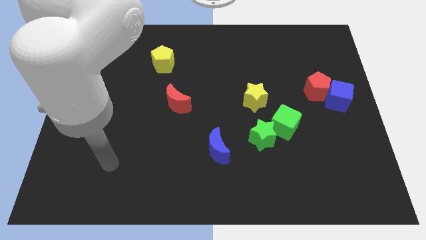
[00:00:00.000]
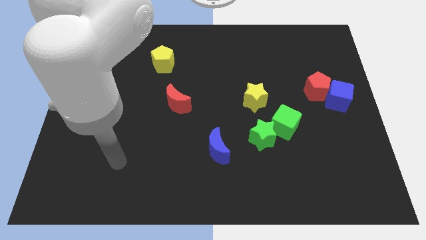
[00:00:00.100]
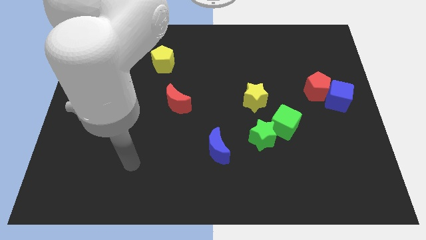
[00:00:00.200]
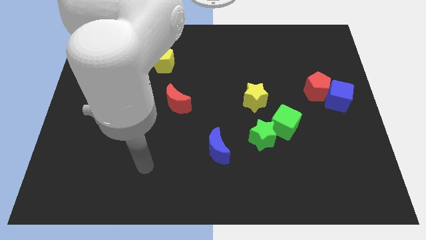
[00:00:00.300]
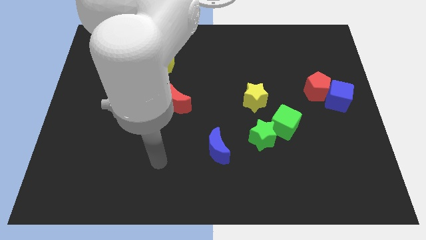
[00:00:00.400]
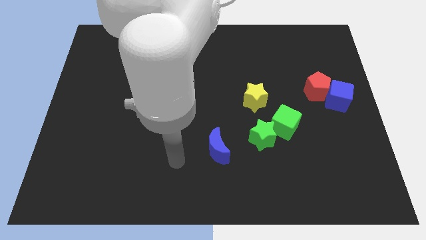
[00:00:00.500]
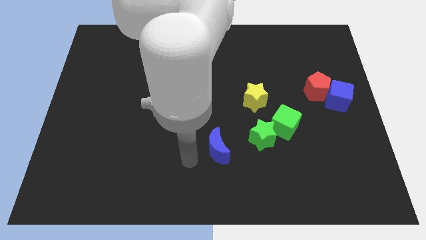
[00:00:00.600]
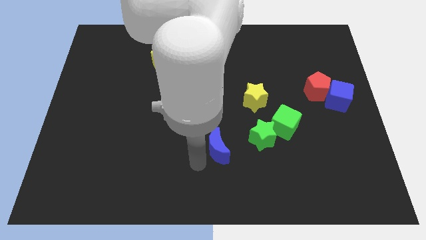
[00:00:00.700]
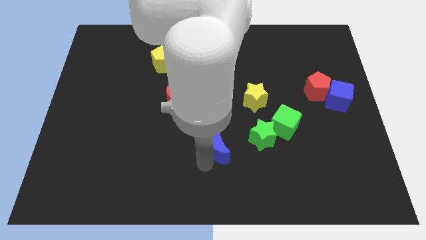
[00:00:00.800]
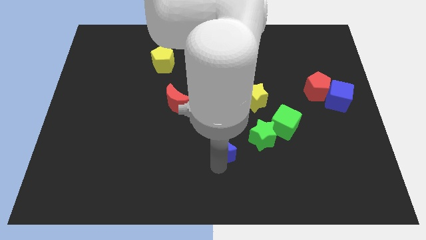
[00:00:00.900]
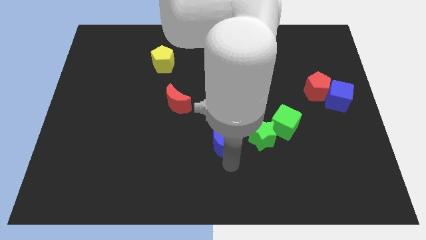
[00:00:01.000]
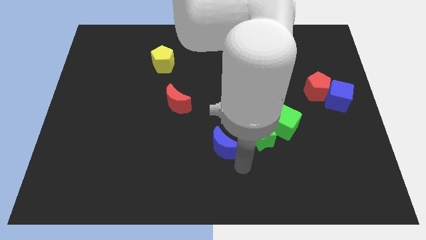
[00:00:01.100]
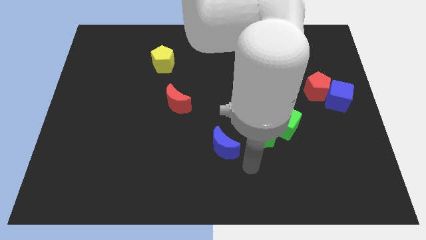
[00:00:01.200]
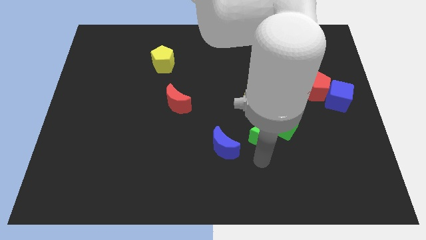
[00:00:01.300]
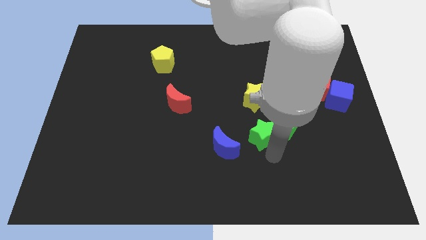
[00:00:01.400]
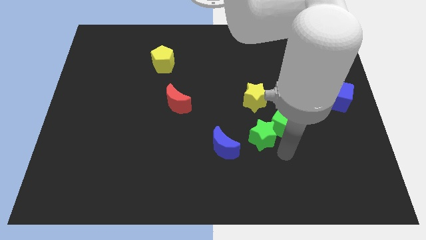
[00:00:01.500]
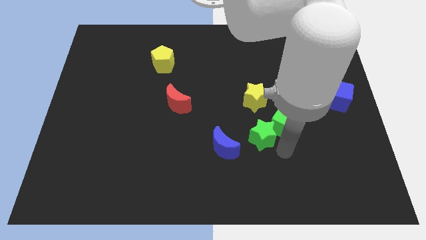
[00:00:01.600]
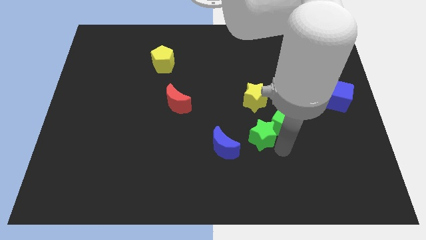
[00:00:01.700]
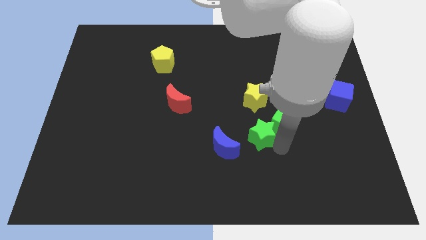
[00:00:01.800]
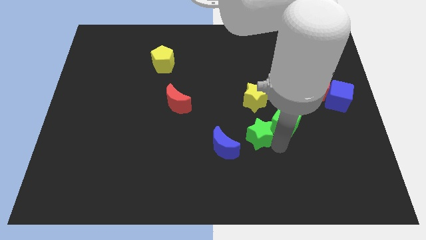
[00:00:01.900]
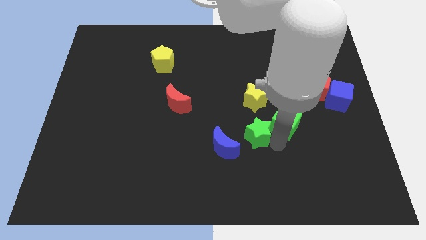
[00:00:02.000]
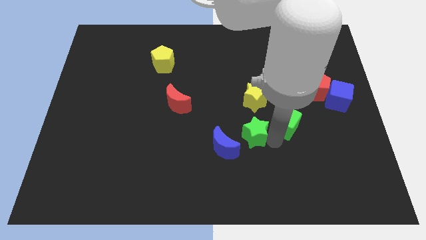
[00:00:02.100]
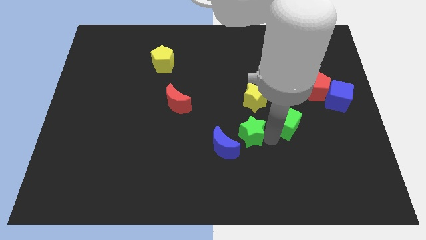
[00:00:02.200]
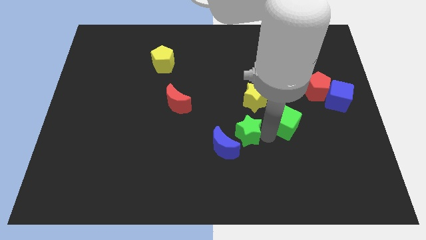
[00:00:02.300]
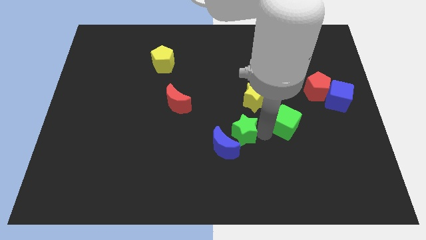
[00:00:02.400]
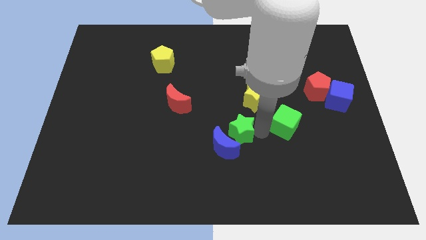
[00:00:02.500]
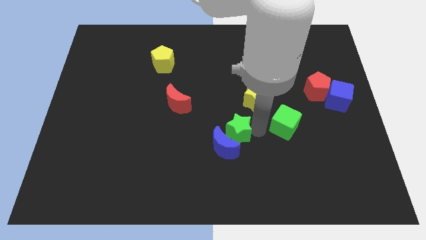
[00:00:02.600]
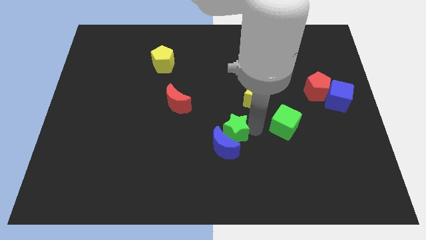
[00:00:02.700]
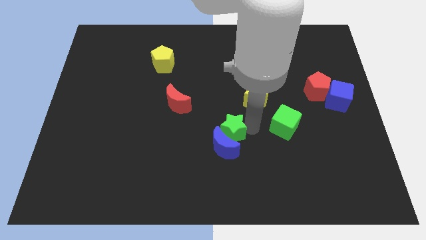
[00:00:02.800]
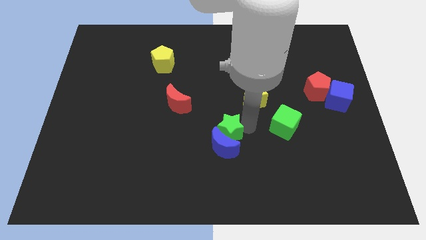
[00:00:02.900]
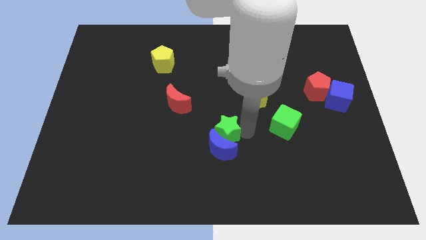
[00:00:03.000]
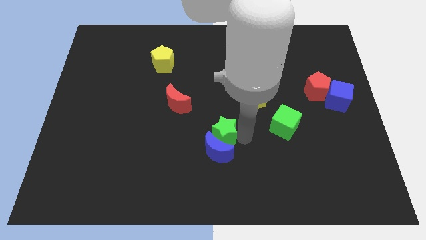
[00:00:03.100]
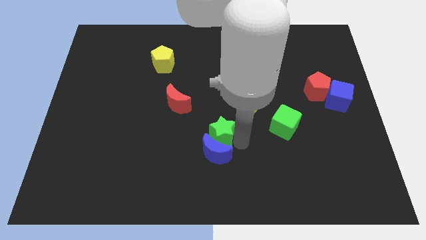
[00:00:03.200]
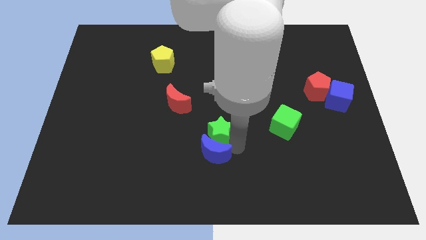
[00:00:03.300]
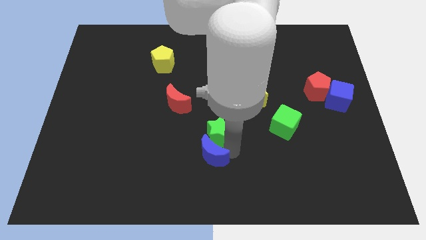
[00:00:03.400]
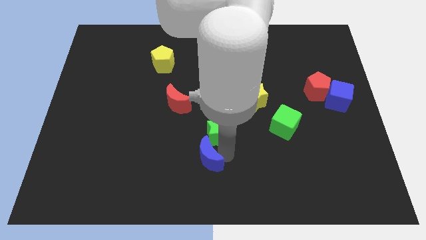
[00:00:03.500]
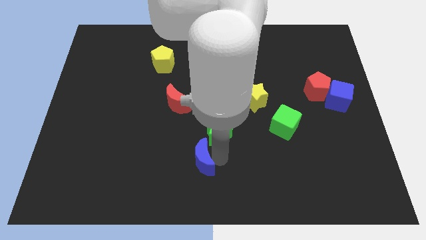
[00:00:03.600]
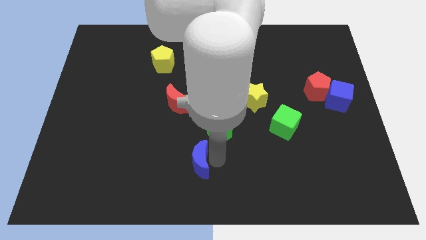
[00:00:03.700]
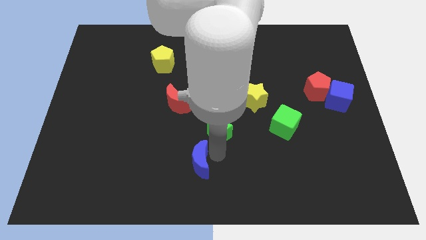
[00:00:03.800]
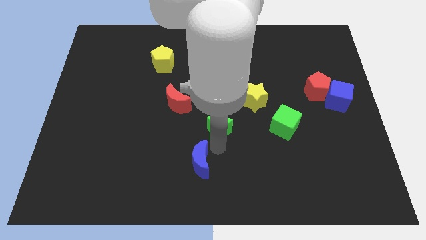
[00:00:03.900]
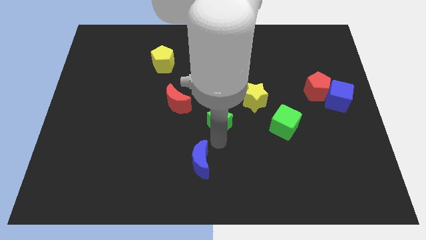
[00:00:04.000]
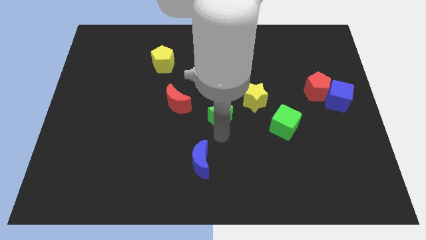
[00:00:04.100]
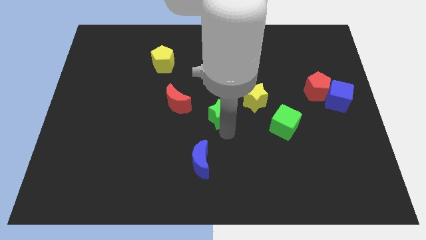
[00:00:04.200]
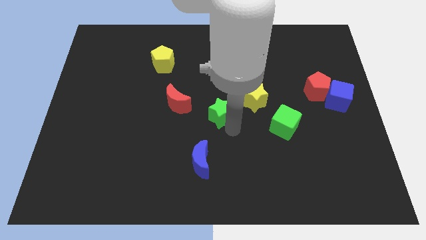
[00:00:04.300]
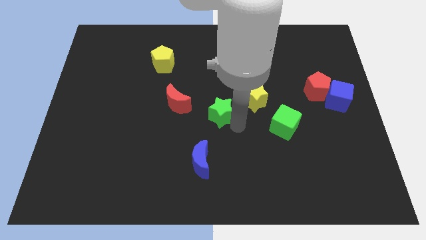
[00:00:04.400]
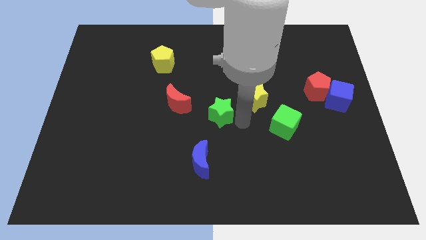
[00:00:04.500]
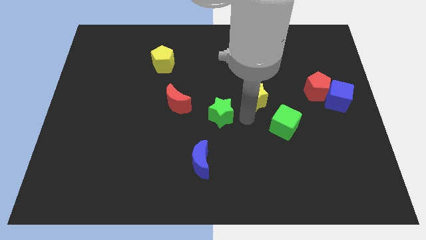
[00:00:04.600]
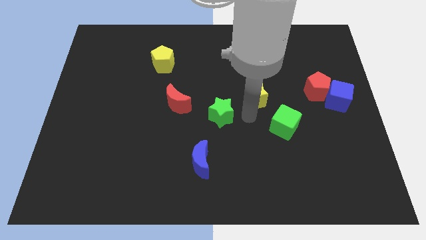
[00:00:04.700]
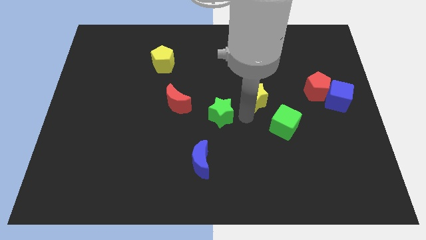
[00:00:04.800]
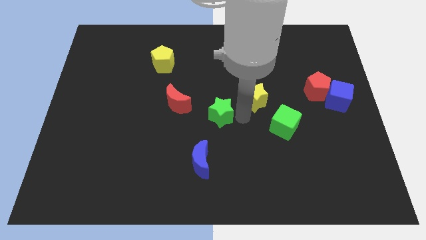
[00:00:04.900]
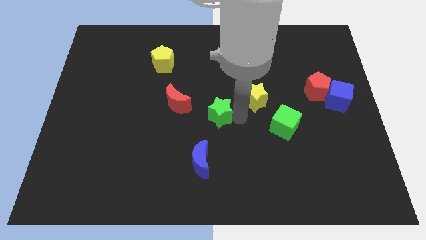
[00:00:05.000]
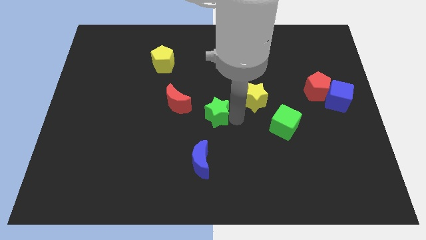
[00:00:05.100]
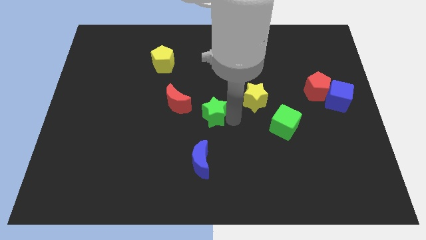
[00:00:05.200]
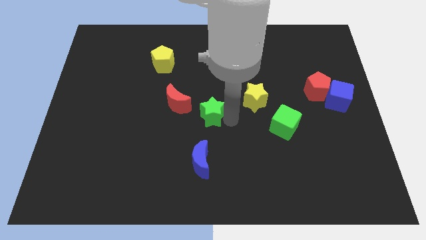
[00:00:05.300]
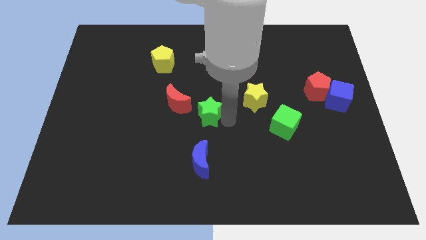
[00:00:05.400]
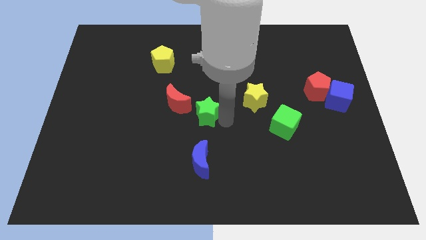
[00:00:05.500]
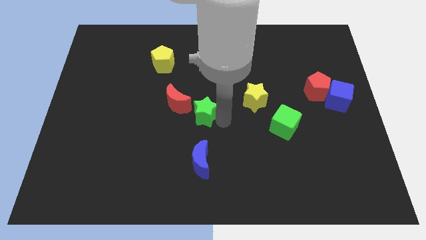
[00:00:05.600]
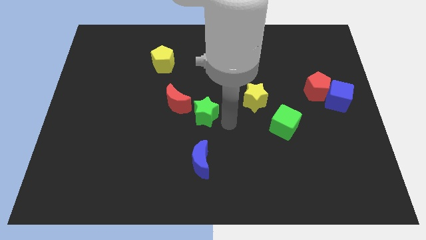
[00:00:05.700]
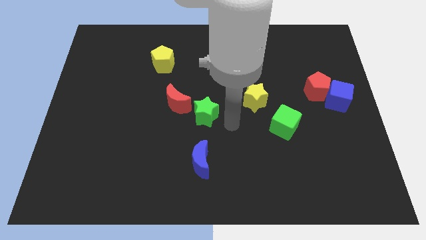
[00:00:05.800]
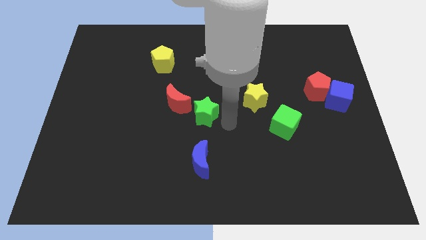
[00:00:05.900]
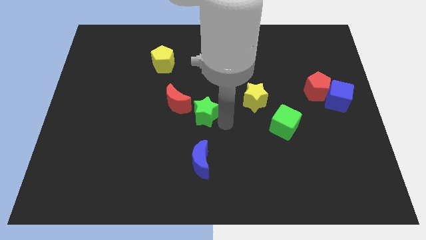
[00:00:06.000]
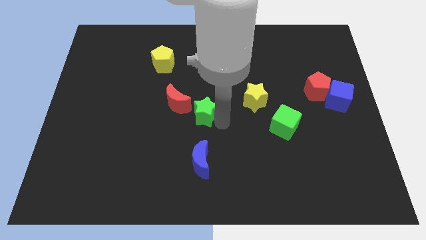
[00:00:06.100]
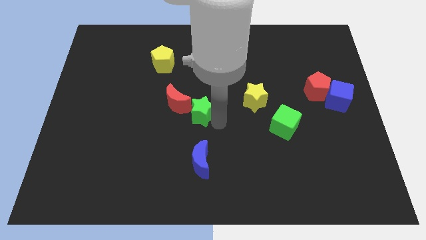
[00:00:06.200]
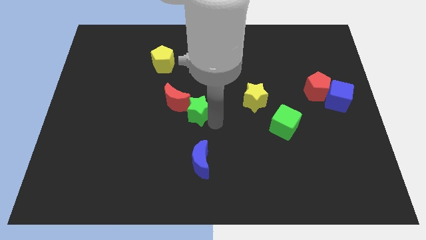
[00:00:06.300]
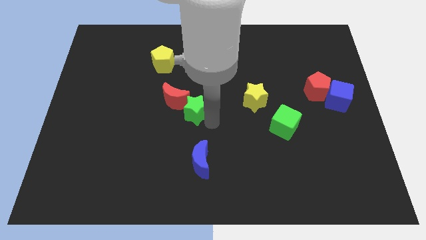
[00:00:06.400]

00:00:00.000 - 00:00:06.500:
put the green star towards the red moon
